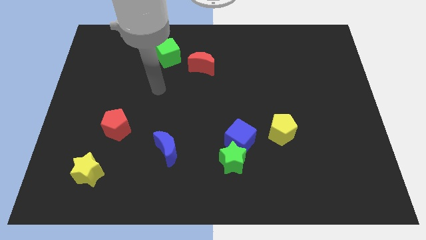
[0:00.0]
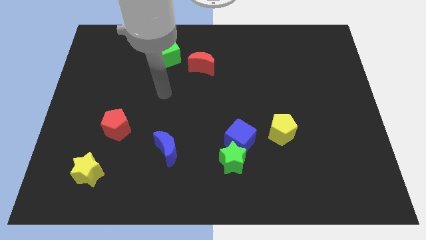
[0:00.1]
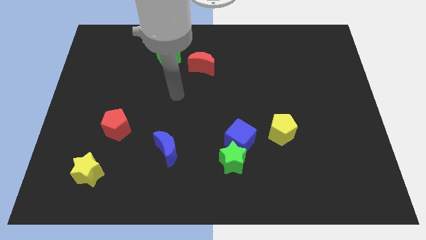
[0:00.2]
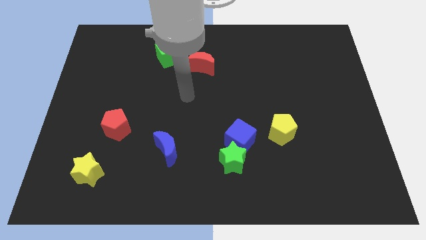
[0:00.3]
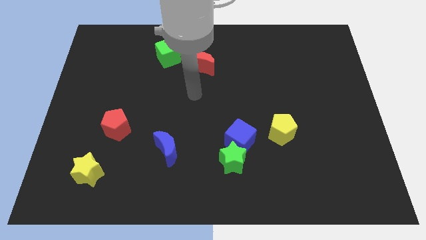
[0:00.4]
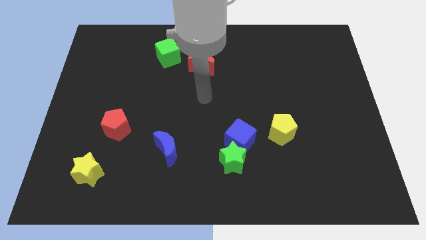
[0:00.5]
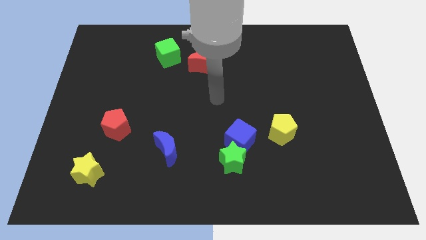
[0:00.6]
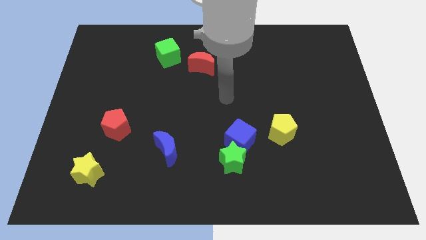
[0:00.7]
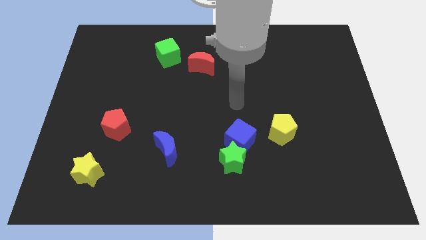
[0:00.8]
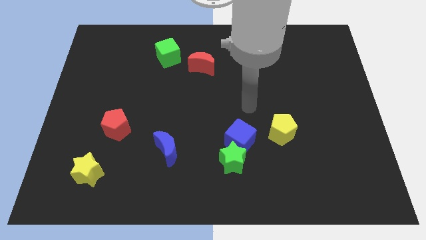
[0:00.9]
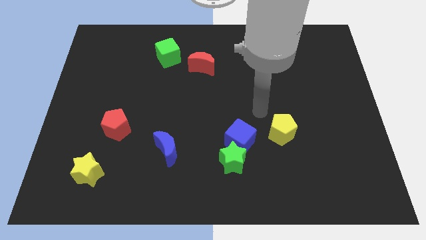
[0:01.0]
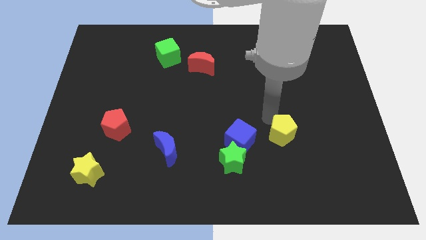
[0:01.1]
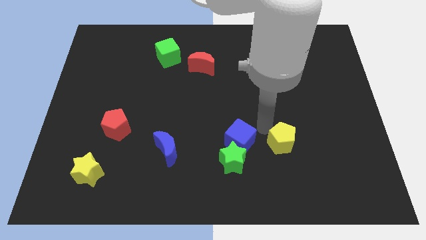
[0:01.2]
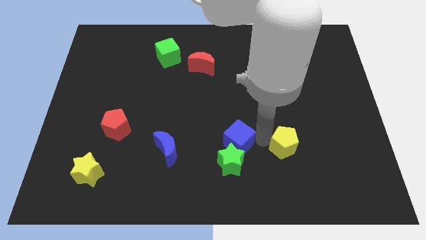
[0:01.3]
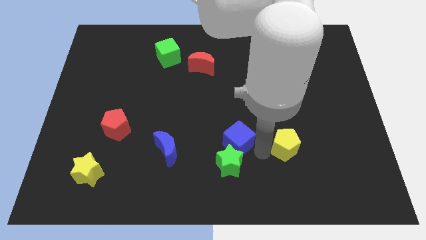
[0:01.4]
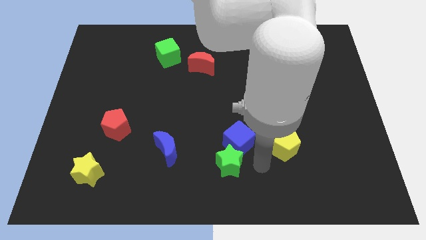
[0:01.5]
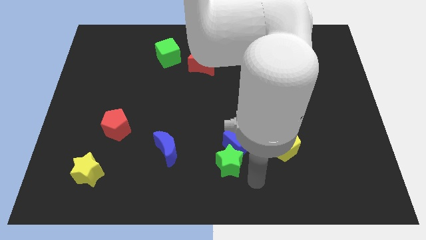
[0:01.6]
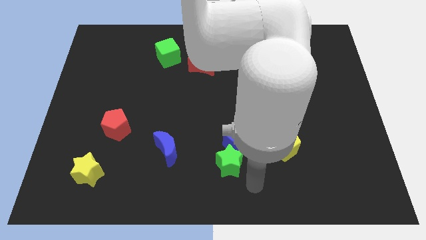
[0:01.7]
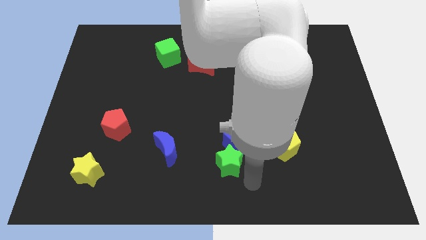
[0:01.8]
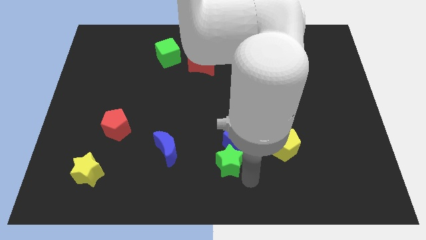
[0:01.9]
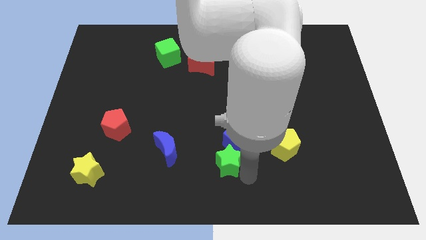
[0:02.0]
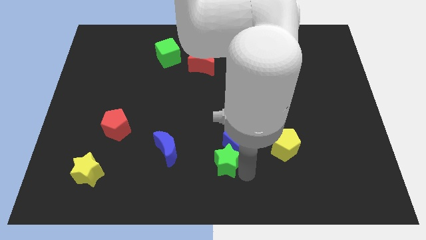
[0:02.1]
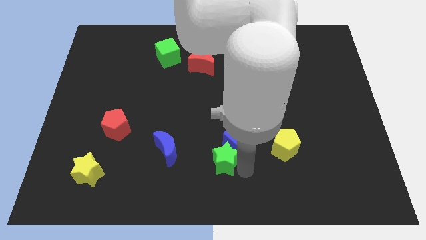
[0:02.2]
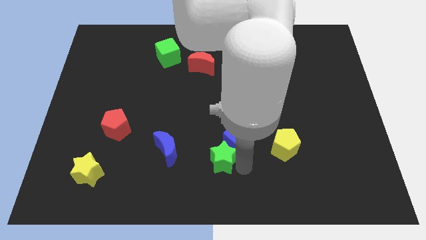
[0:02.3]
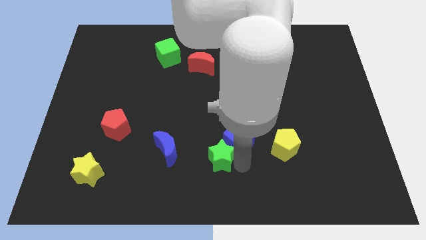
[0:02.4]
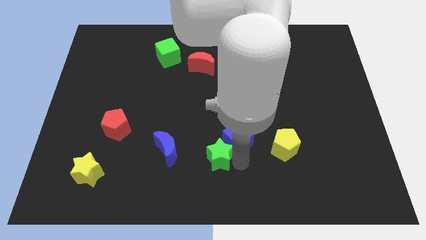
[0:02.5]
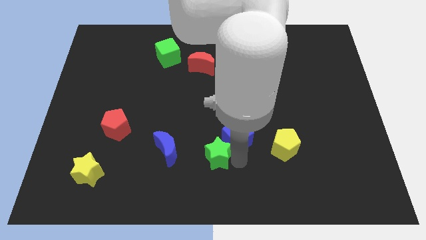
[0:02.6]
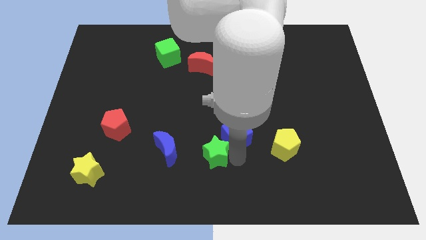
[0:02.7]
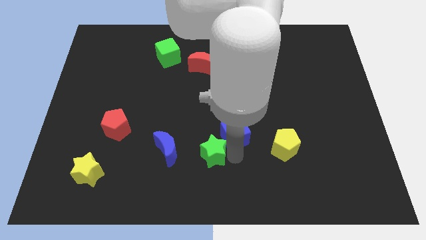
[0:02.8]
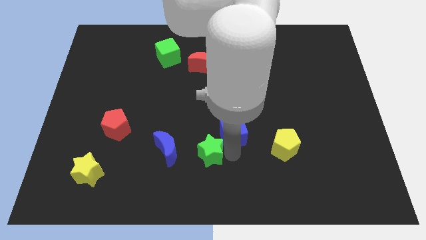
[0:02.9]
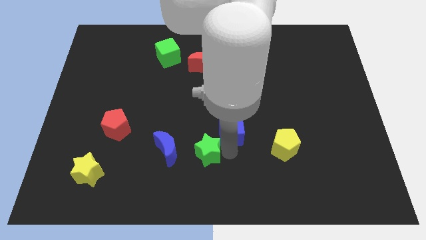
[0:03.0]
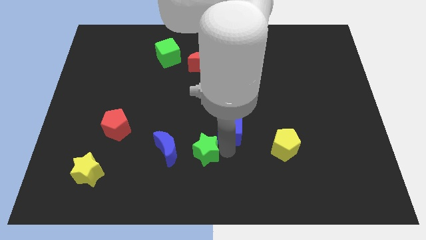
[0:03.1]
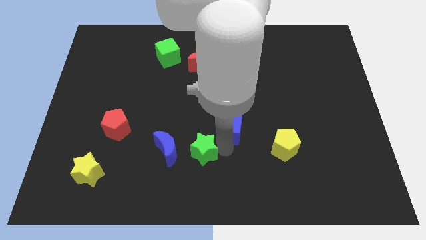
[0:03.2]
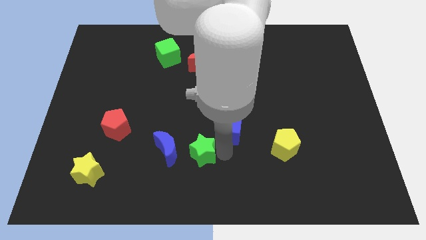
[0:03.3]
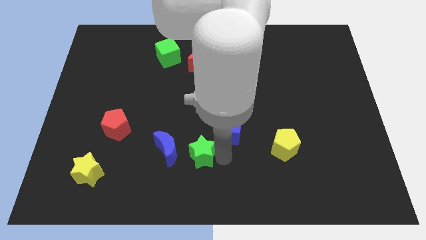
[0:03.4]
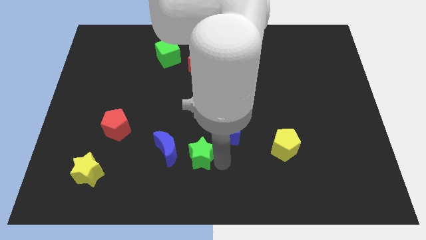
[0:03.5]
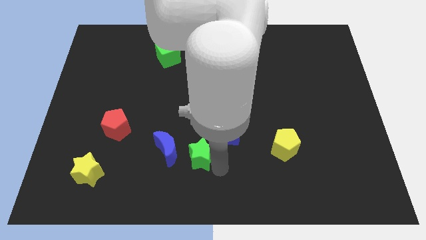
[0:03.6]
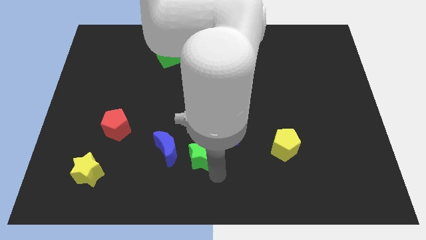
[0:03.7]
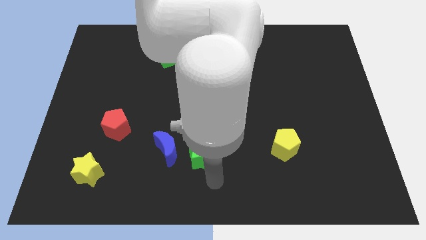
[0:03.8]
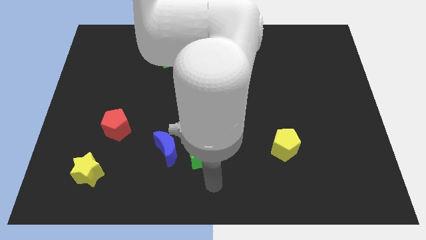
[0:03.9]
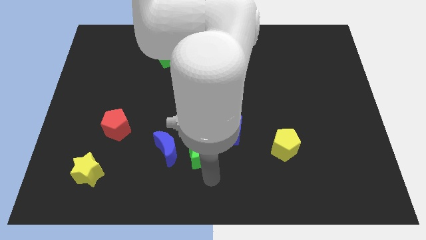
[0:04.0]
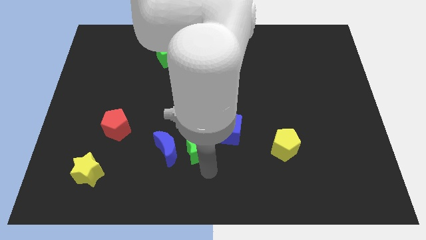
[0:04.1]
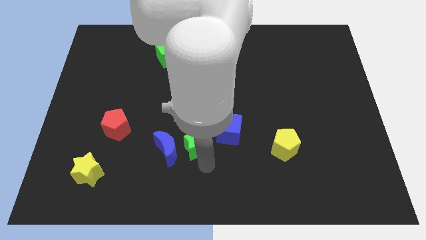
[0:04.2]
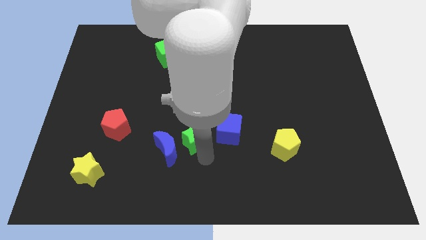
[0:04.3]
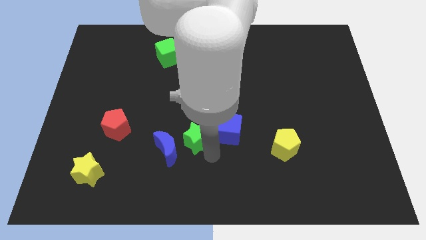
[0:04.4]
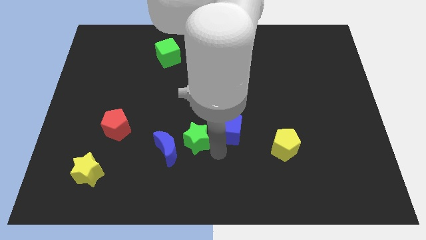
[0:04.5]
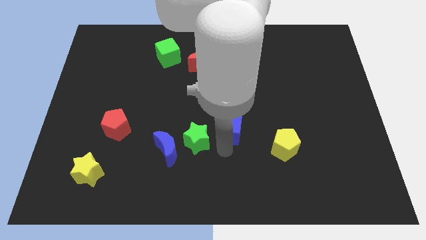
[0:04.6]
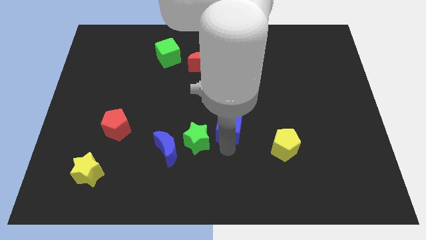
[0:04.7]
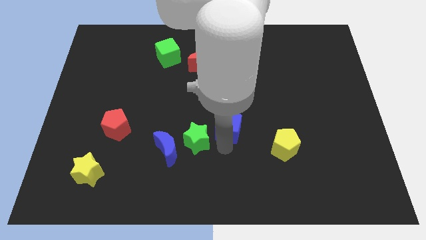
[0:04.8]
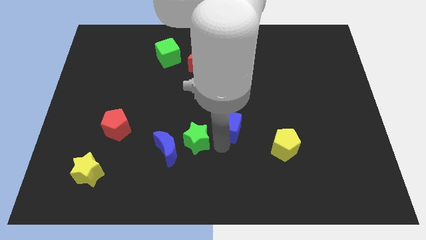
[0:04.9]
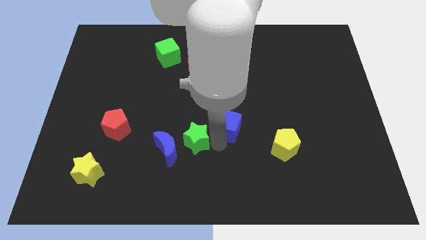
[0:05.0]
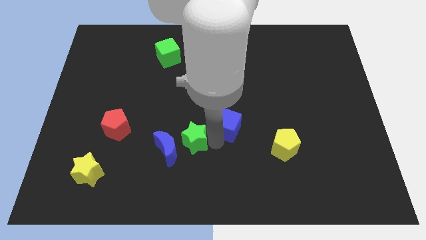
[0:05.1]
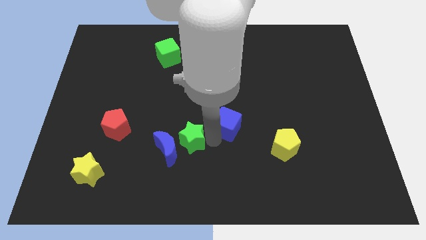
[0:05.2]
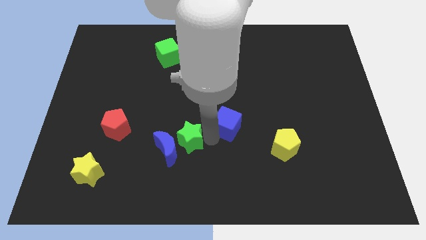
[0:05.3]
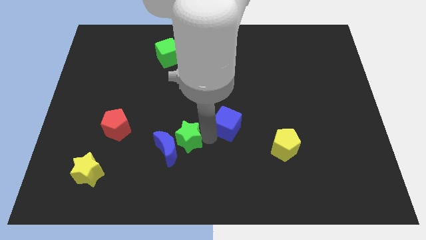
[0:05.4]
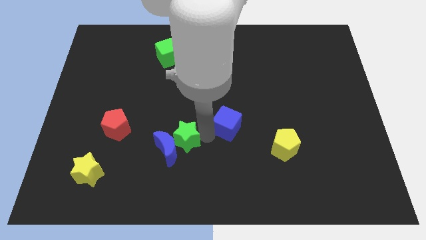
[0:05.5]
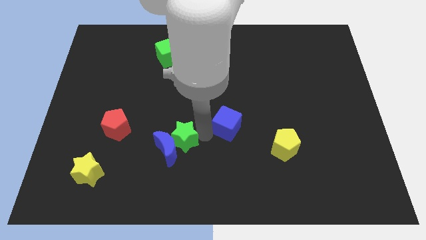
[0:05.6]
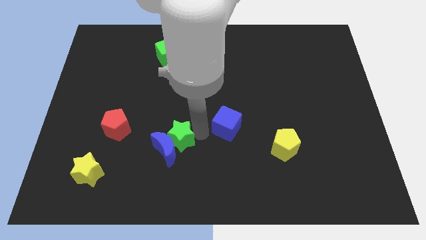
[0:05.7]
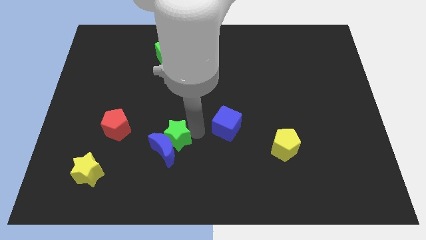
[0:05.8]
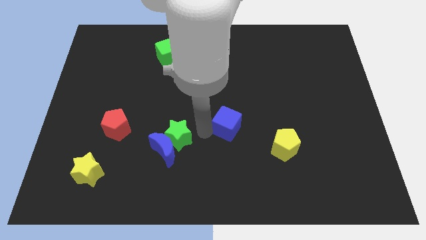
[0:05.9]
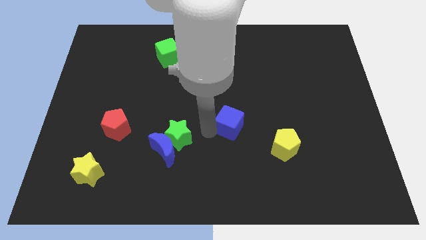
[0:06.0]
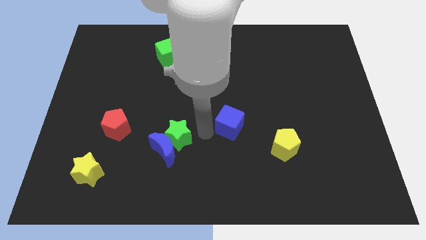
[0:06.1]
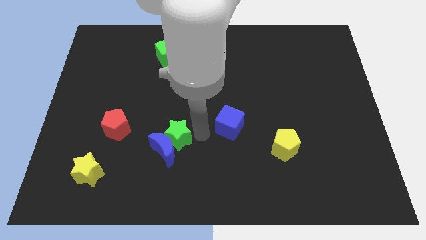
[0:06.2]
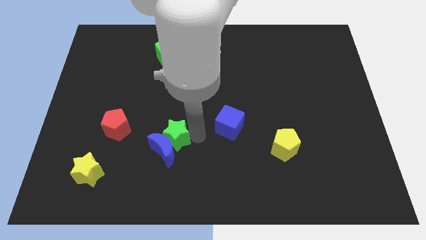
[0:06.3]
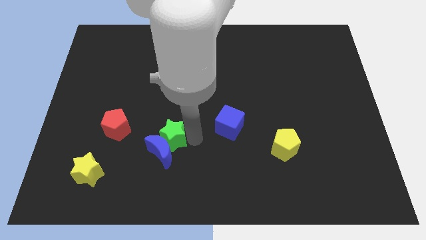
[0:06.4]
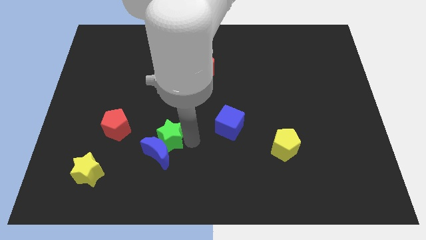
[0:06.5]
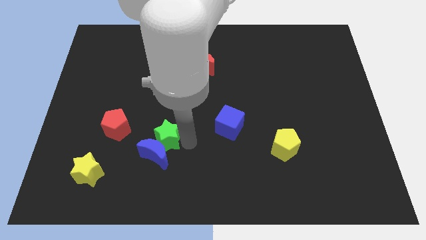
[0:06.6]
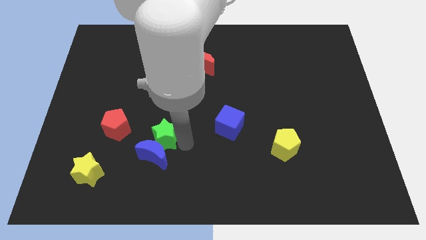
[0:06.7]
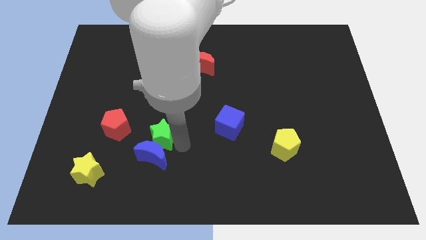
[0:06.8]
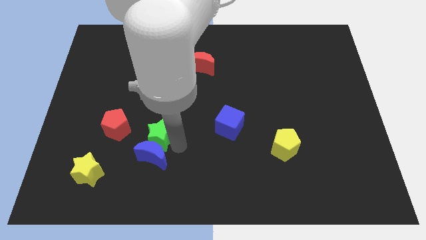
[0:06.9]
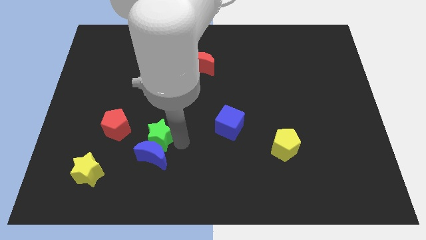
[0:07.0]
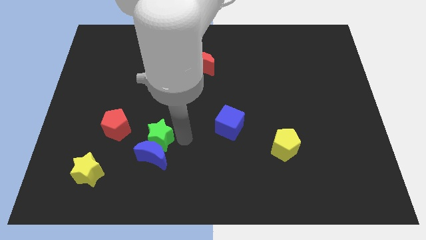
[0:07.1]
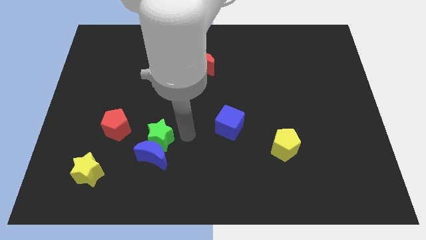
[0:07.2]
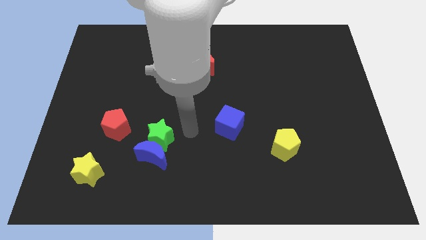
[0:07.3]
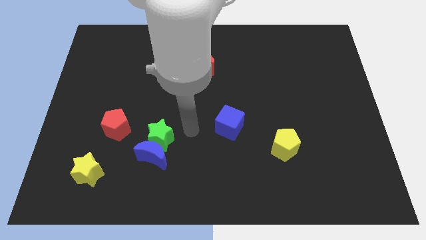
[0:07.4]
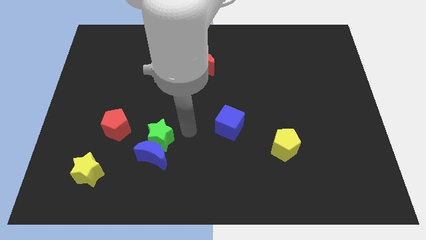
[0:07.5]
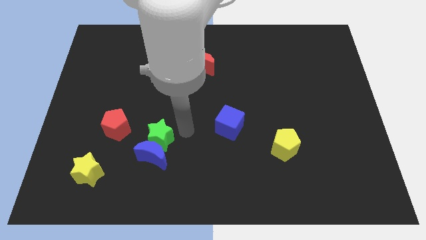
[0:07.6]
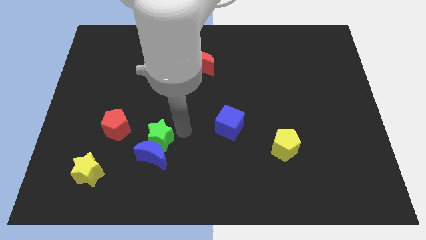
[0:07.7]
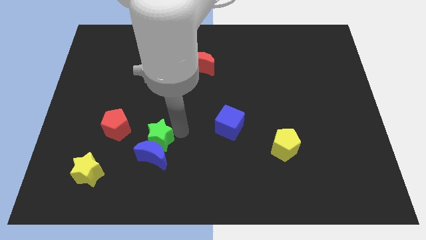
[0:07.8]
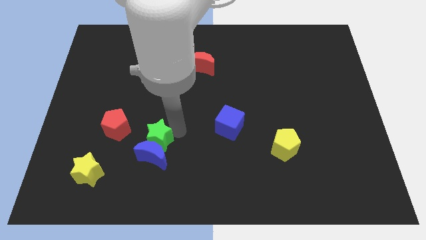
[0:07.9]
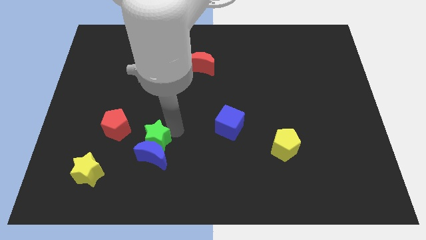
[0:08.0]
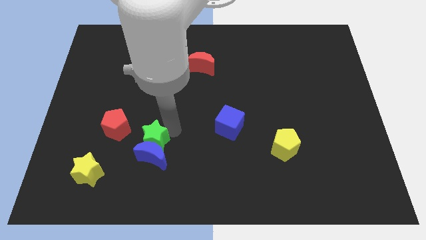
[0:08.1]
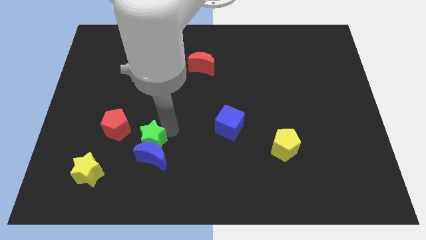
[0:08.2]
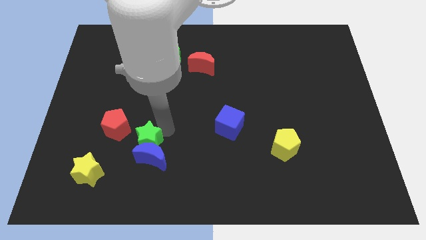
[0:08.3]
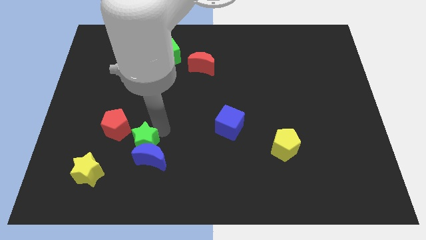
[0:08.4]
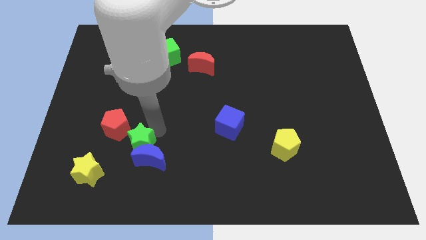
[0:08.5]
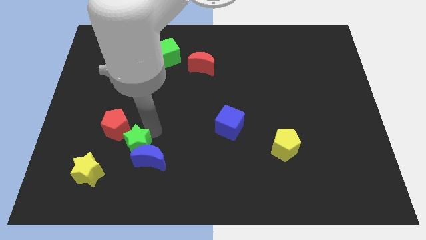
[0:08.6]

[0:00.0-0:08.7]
push the green star left of the blue moon
